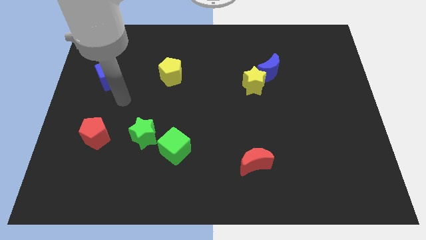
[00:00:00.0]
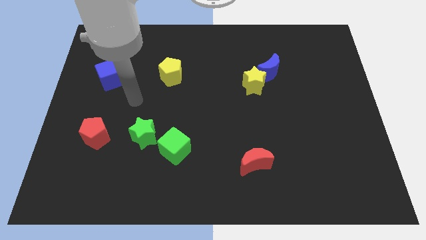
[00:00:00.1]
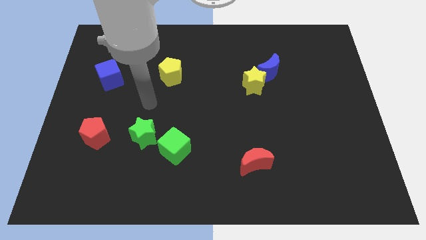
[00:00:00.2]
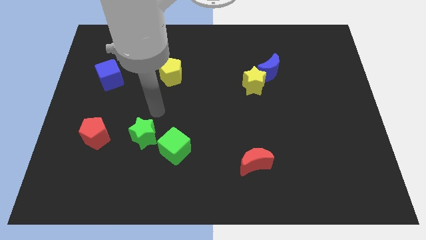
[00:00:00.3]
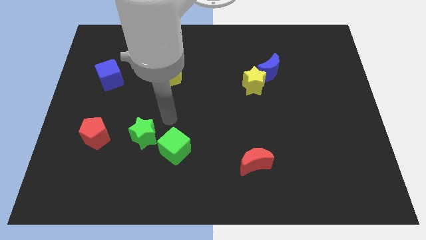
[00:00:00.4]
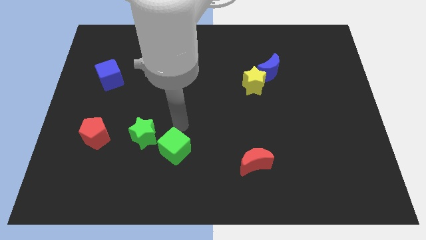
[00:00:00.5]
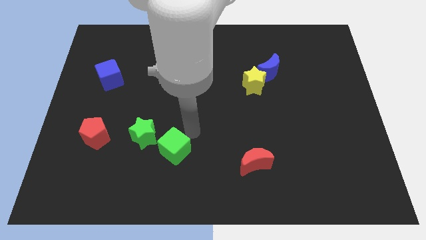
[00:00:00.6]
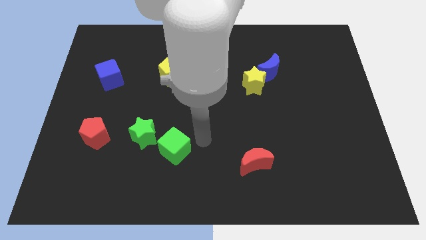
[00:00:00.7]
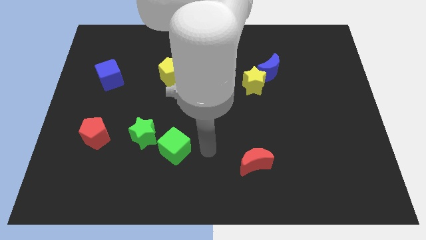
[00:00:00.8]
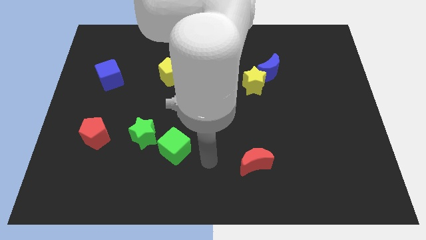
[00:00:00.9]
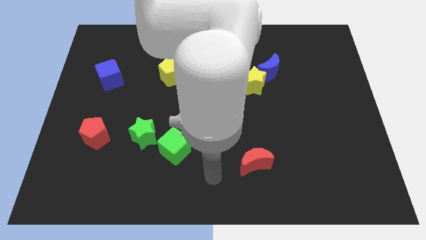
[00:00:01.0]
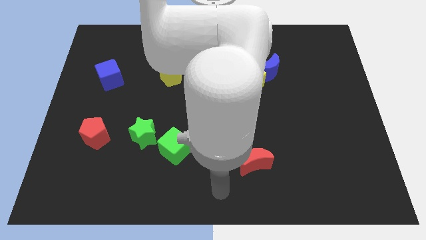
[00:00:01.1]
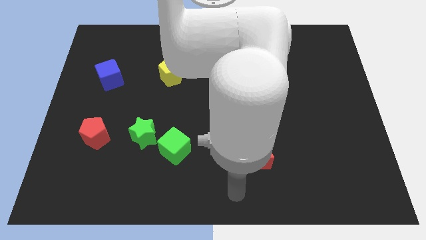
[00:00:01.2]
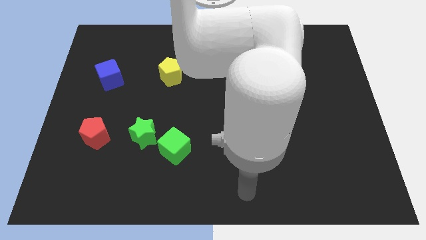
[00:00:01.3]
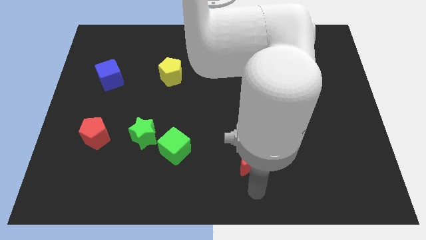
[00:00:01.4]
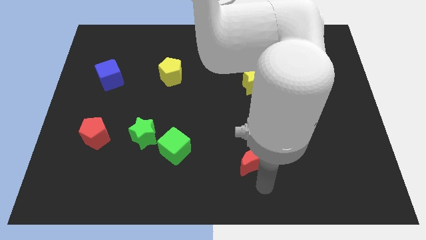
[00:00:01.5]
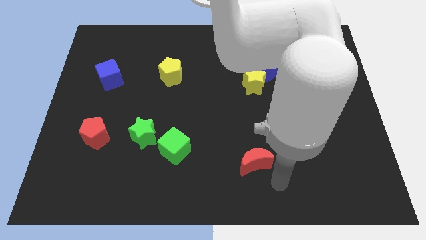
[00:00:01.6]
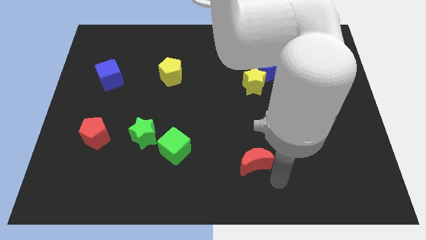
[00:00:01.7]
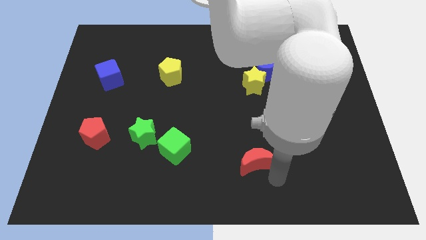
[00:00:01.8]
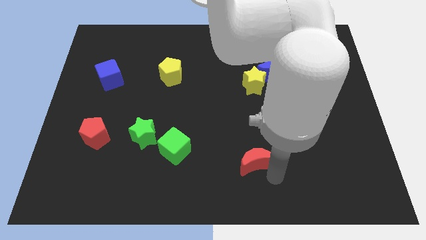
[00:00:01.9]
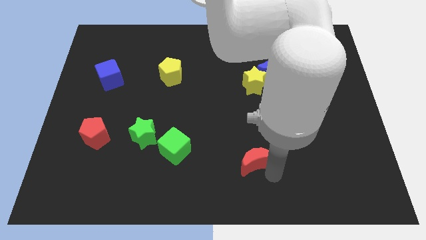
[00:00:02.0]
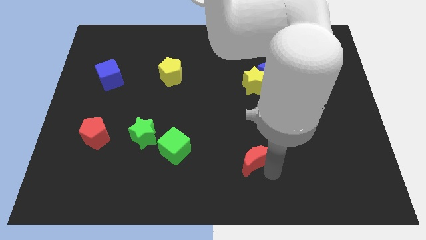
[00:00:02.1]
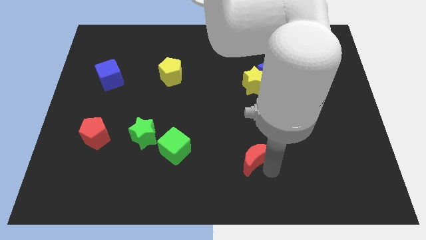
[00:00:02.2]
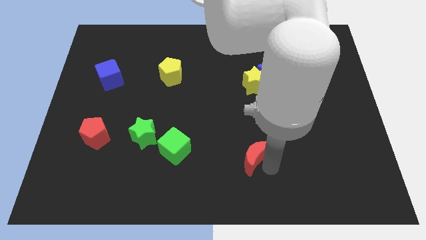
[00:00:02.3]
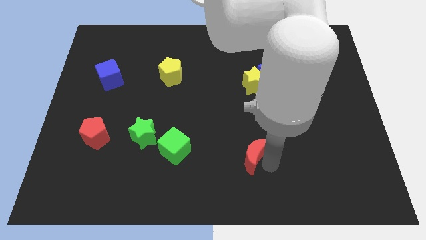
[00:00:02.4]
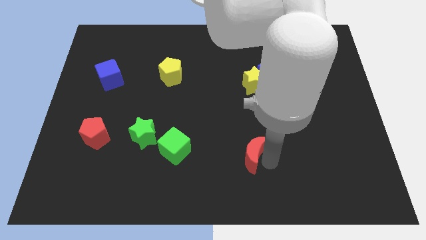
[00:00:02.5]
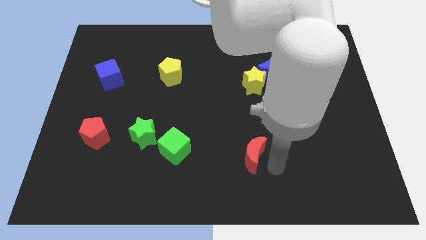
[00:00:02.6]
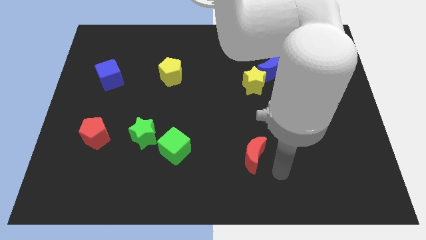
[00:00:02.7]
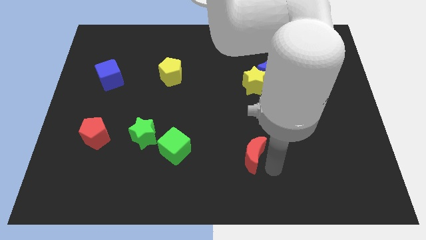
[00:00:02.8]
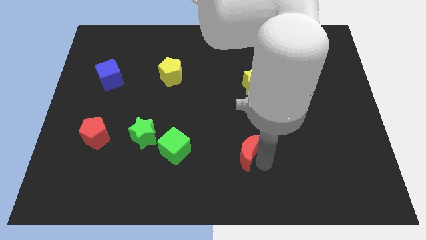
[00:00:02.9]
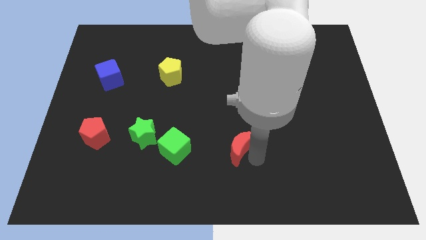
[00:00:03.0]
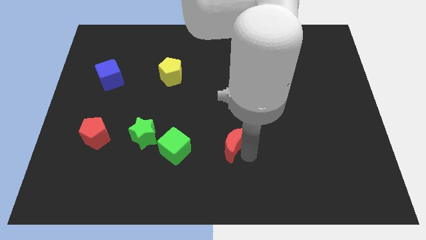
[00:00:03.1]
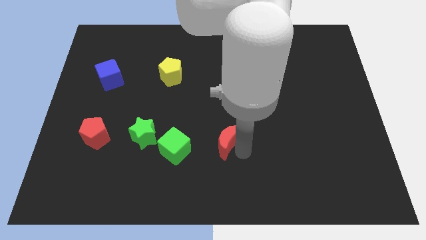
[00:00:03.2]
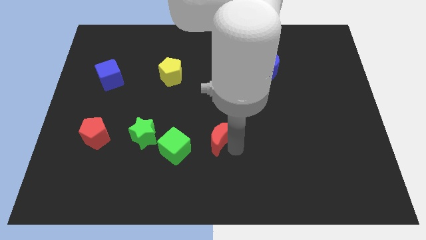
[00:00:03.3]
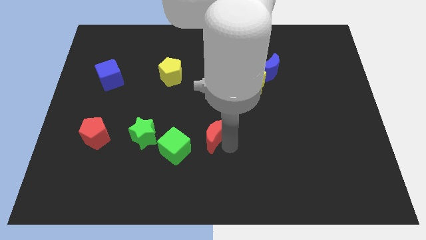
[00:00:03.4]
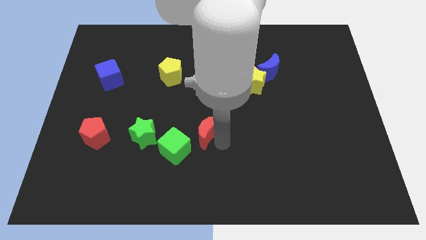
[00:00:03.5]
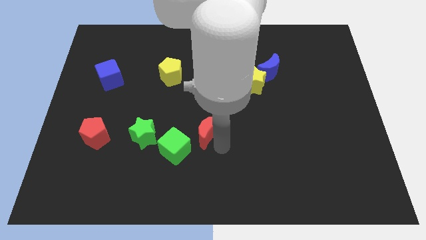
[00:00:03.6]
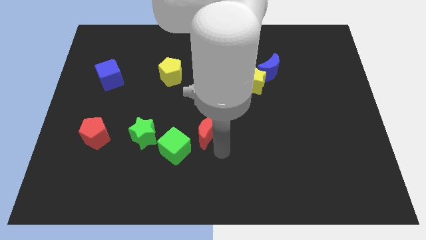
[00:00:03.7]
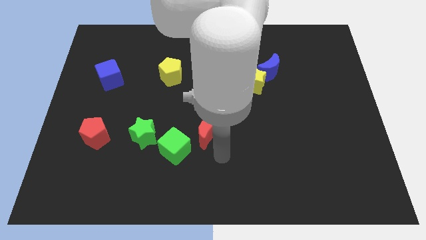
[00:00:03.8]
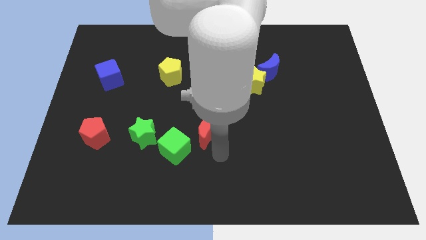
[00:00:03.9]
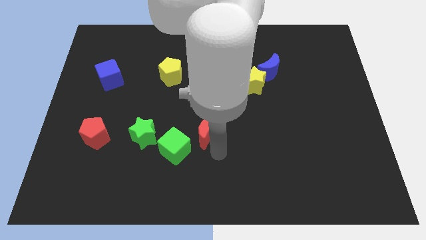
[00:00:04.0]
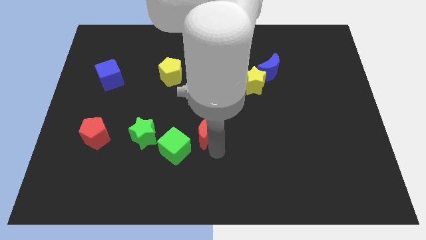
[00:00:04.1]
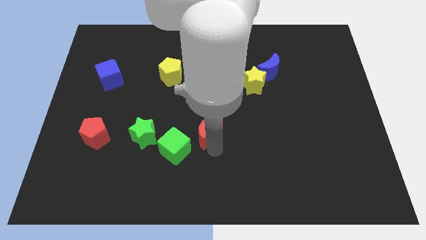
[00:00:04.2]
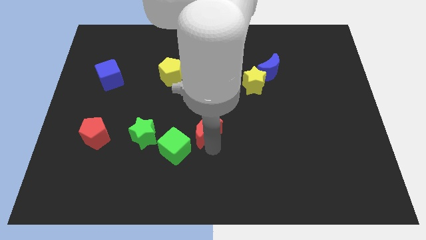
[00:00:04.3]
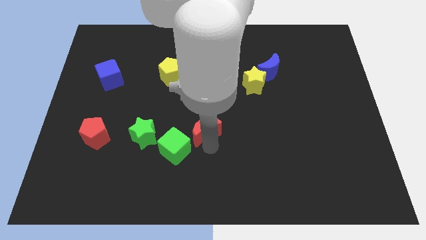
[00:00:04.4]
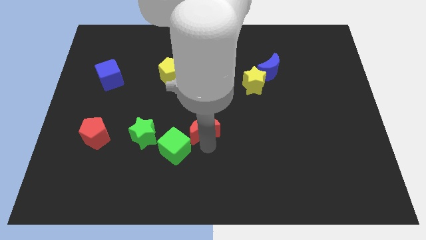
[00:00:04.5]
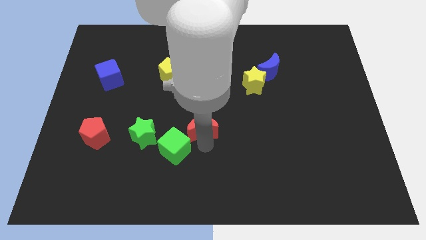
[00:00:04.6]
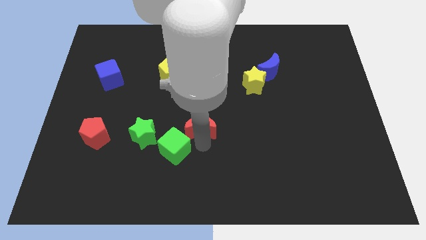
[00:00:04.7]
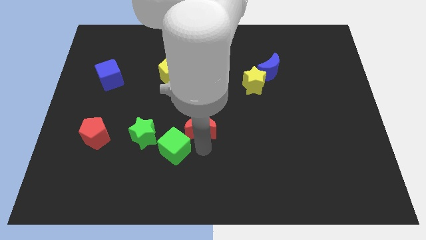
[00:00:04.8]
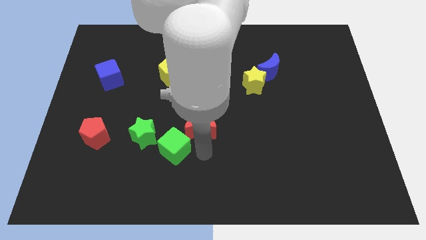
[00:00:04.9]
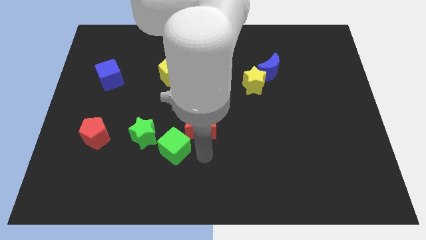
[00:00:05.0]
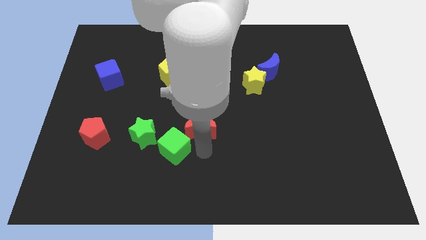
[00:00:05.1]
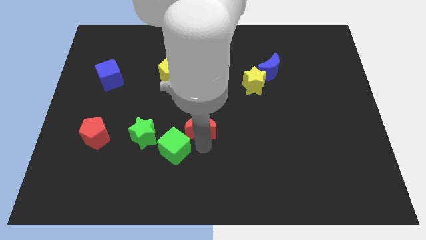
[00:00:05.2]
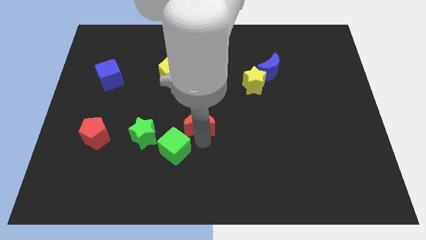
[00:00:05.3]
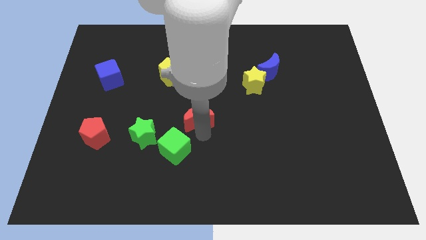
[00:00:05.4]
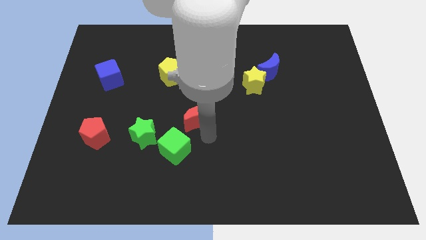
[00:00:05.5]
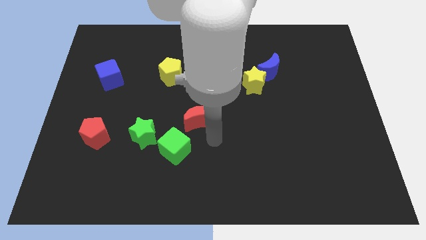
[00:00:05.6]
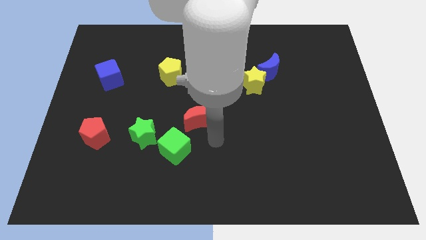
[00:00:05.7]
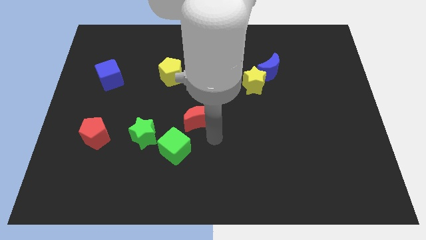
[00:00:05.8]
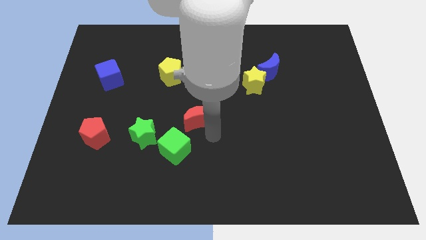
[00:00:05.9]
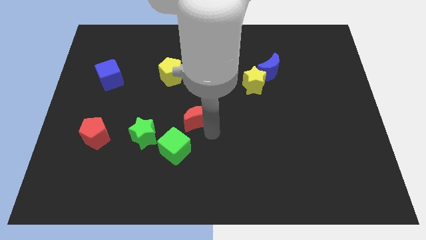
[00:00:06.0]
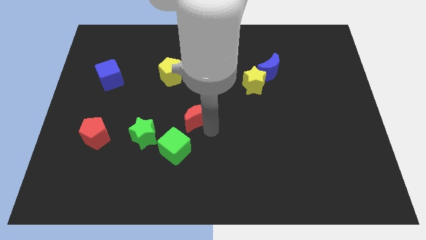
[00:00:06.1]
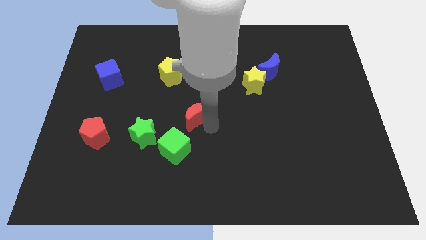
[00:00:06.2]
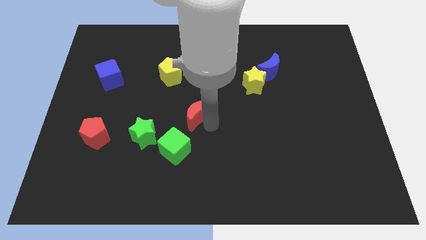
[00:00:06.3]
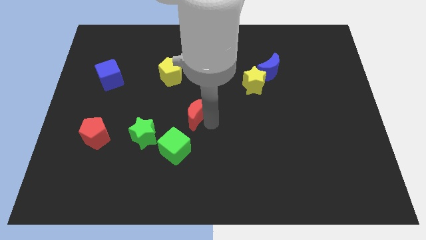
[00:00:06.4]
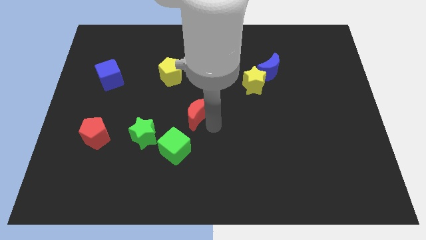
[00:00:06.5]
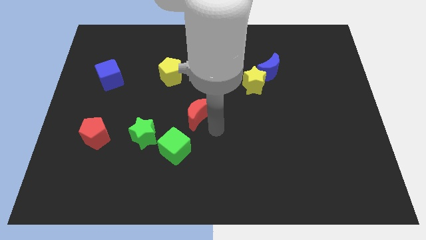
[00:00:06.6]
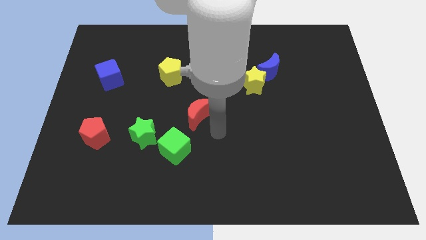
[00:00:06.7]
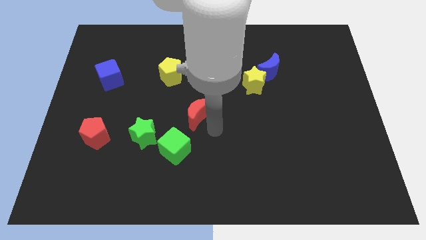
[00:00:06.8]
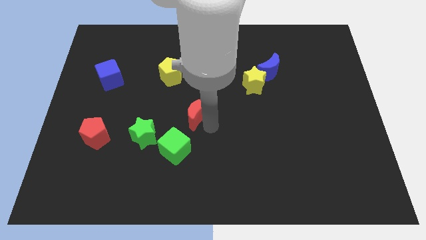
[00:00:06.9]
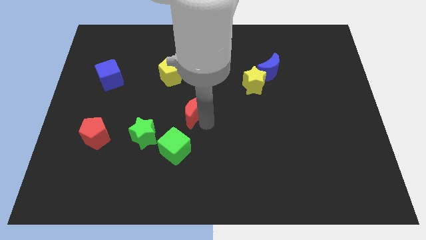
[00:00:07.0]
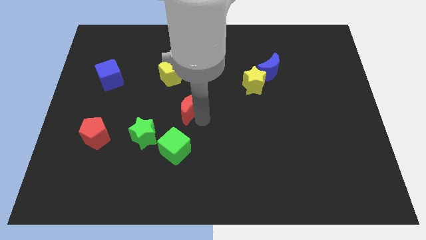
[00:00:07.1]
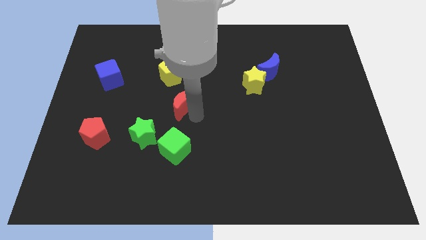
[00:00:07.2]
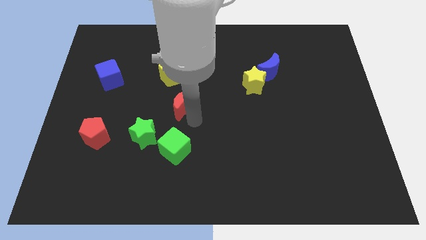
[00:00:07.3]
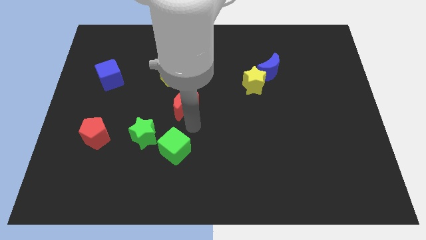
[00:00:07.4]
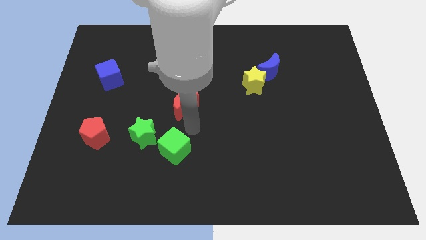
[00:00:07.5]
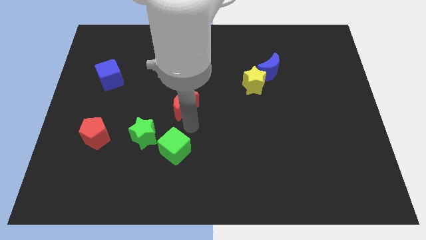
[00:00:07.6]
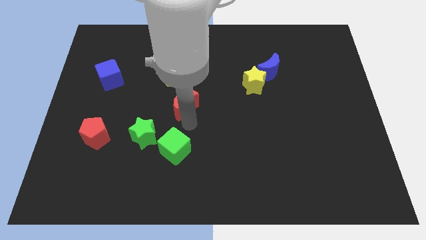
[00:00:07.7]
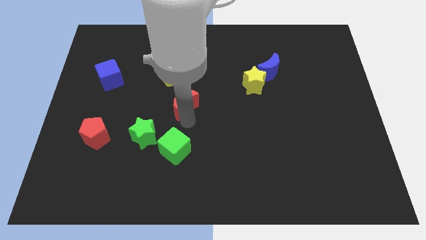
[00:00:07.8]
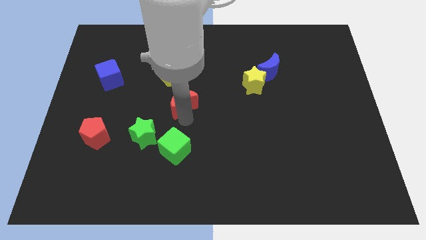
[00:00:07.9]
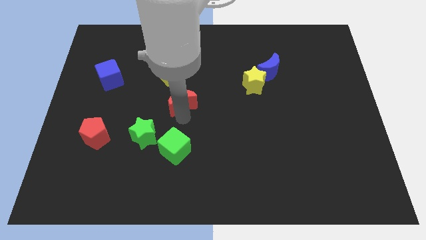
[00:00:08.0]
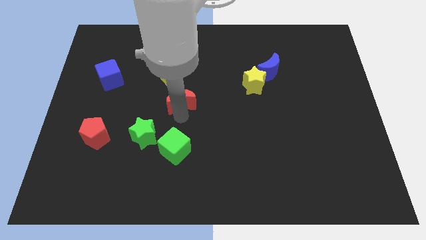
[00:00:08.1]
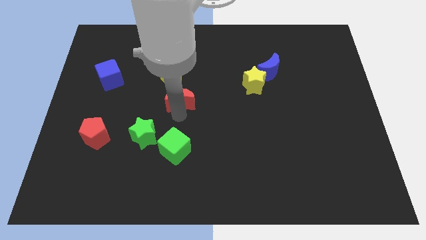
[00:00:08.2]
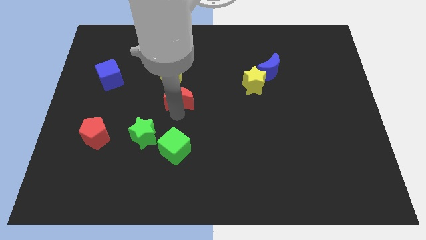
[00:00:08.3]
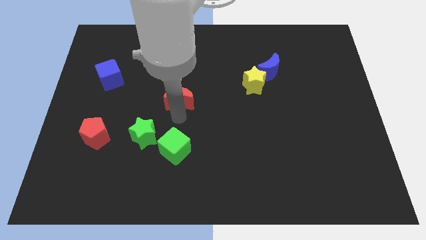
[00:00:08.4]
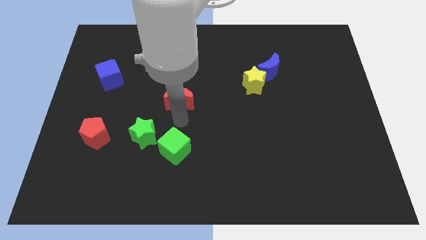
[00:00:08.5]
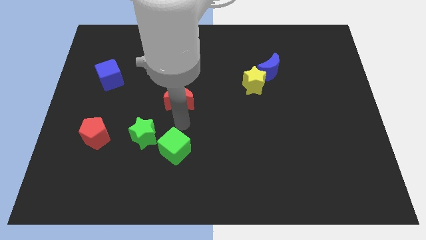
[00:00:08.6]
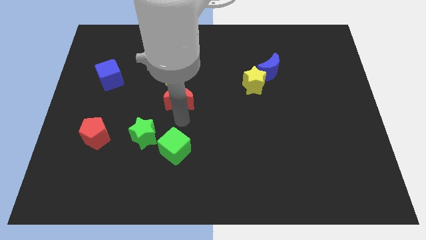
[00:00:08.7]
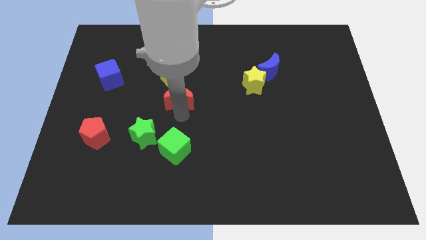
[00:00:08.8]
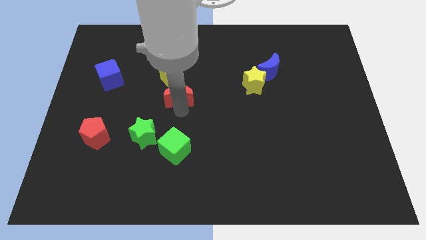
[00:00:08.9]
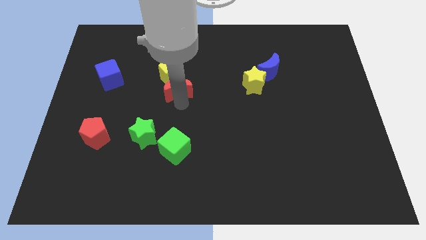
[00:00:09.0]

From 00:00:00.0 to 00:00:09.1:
put the red moon next to the yellow pentagon
